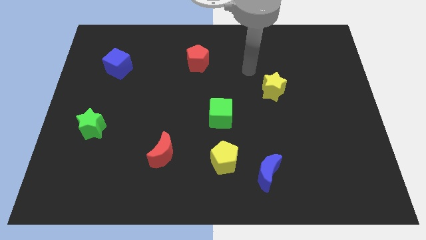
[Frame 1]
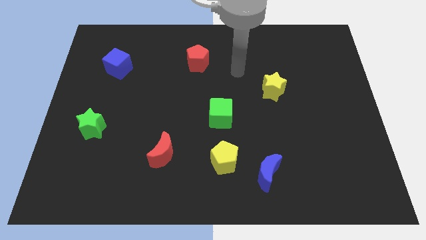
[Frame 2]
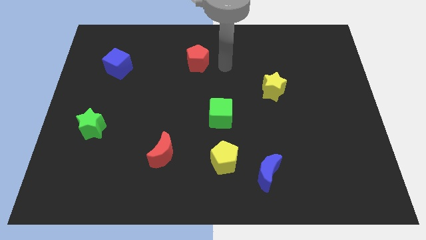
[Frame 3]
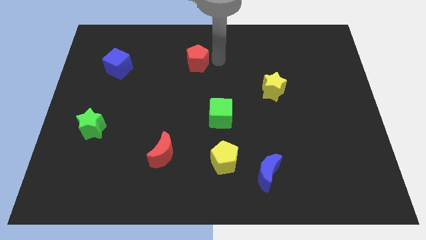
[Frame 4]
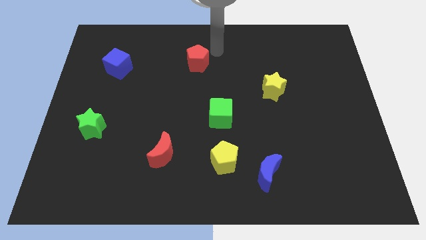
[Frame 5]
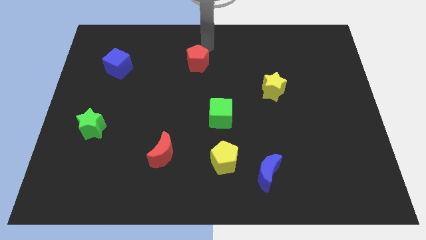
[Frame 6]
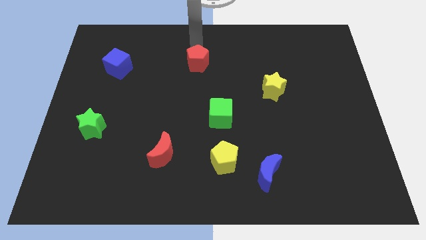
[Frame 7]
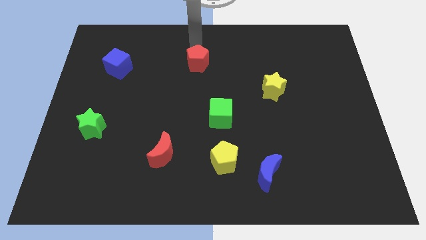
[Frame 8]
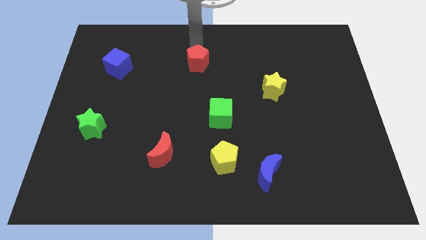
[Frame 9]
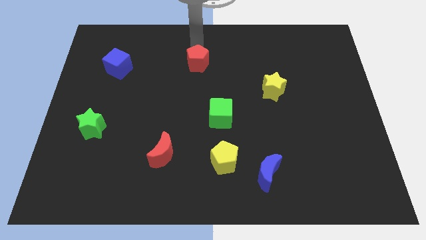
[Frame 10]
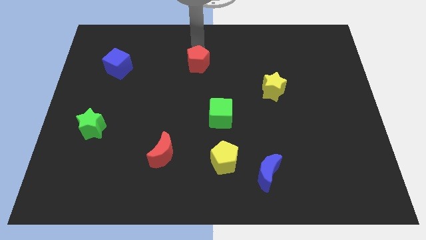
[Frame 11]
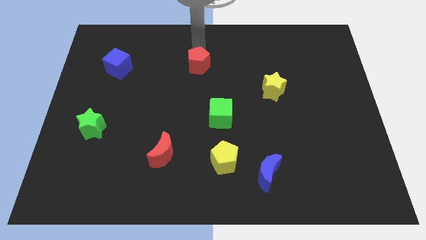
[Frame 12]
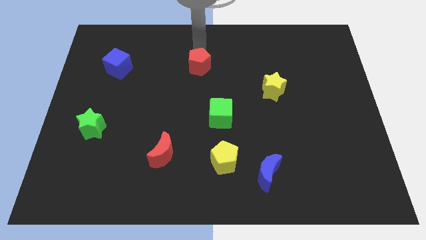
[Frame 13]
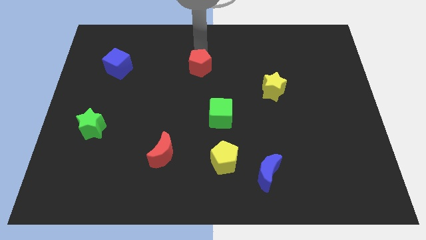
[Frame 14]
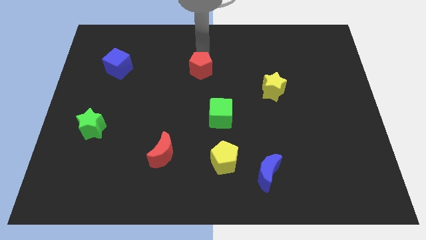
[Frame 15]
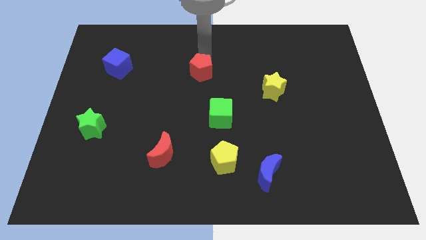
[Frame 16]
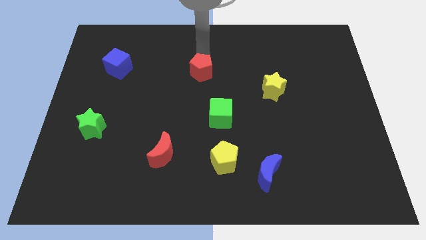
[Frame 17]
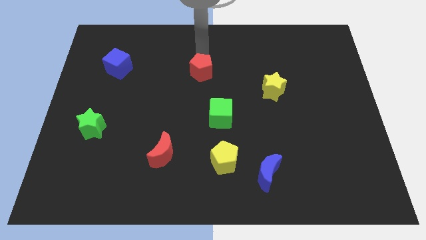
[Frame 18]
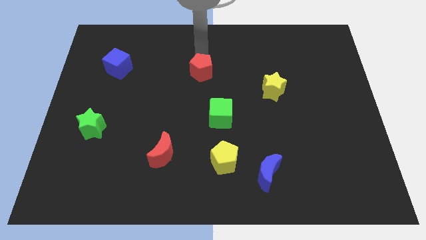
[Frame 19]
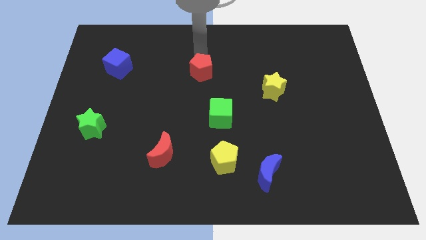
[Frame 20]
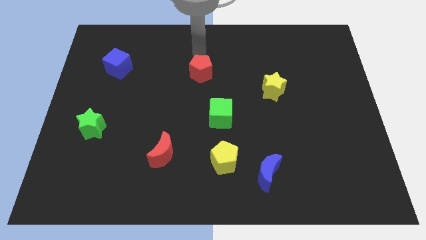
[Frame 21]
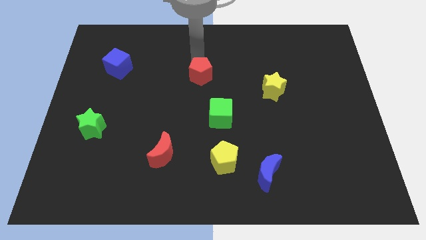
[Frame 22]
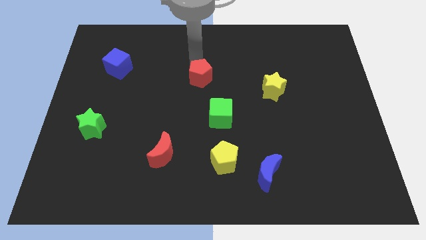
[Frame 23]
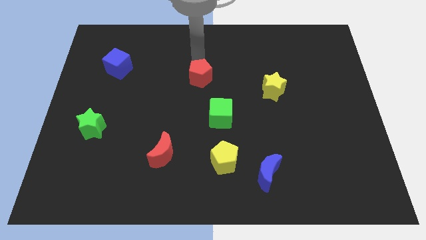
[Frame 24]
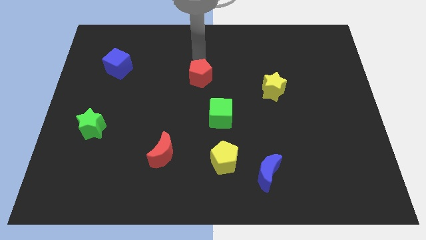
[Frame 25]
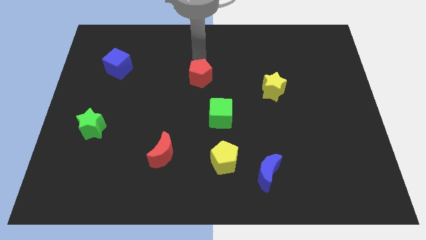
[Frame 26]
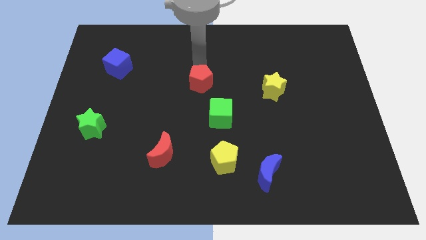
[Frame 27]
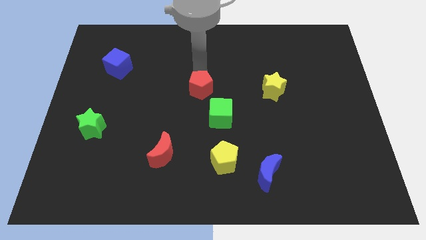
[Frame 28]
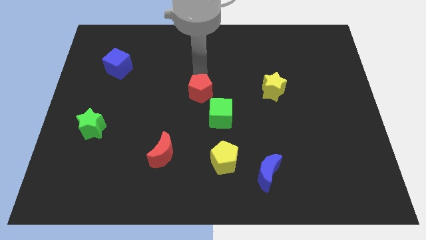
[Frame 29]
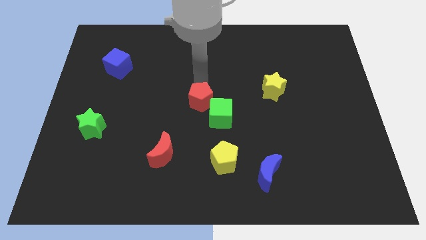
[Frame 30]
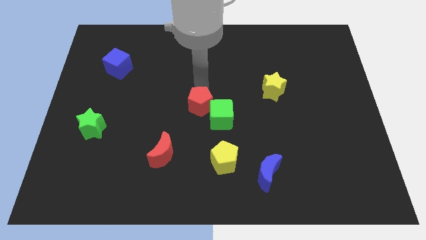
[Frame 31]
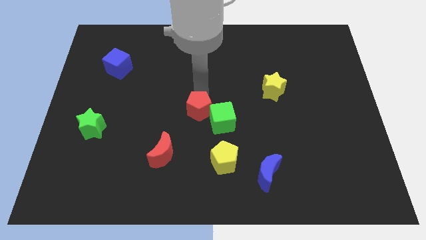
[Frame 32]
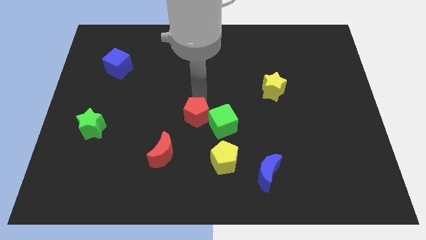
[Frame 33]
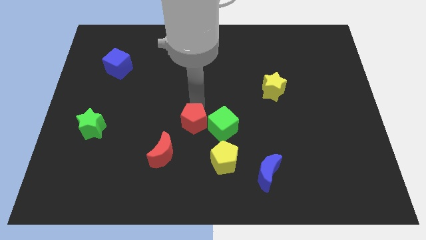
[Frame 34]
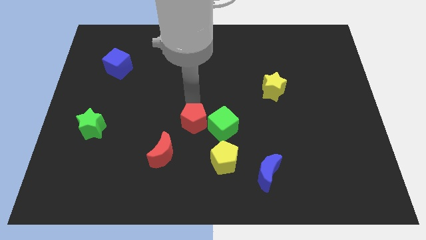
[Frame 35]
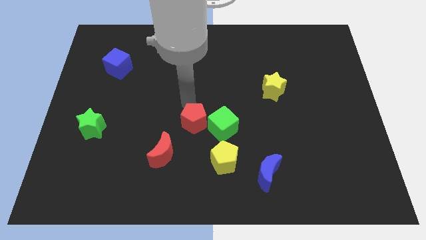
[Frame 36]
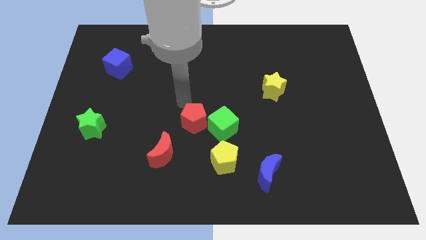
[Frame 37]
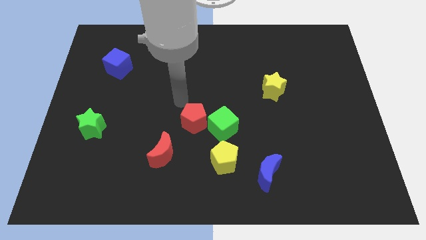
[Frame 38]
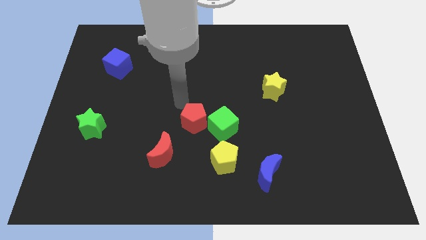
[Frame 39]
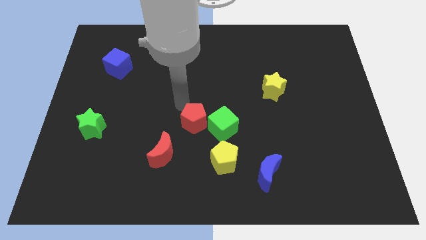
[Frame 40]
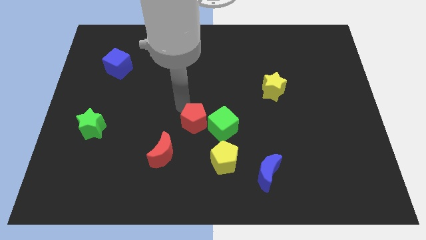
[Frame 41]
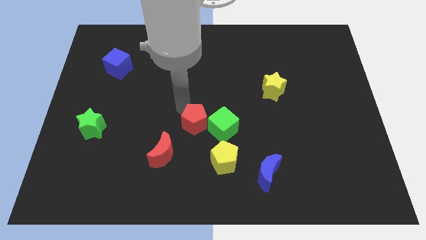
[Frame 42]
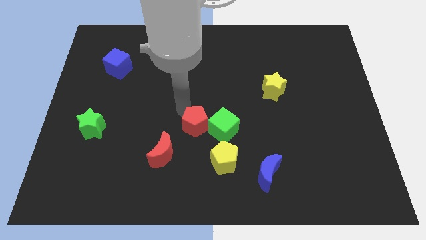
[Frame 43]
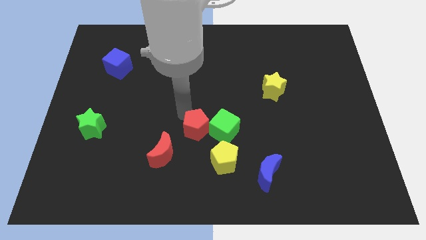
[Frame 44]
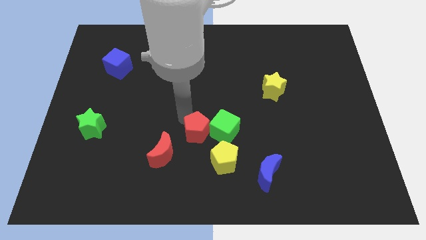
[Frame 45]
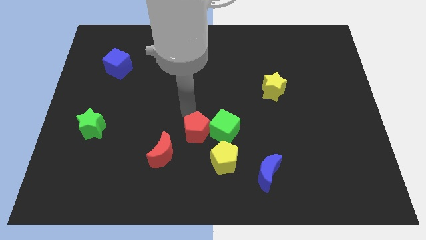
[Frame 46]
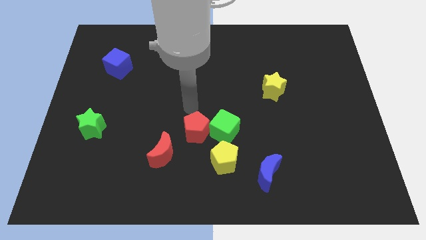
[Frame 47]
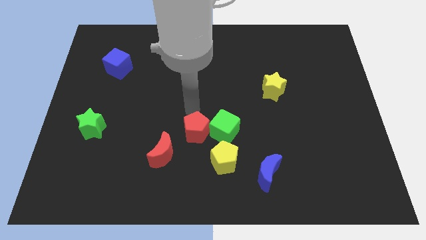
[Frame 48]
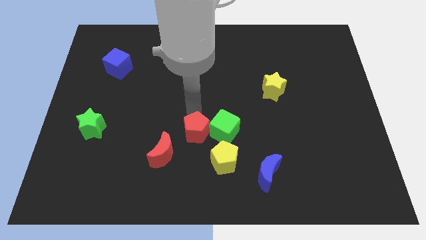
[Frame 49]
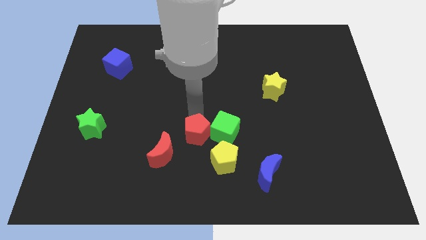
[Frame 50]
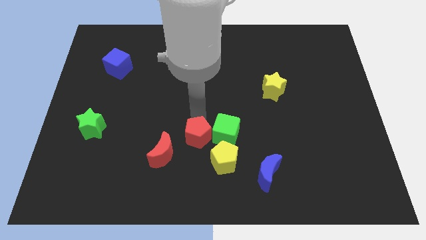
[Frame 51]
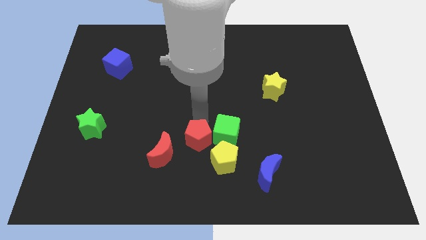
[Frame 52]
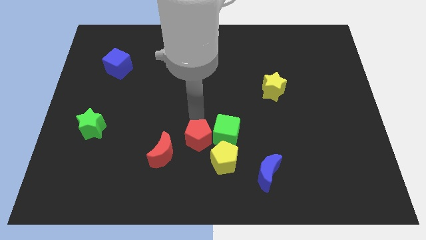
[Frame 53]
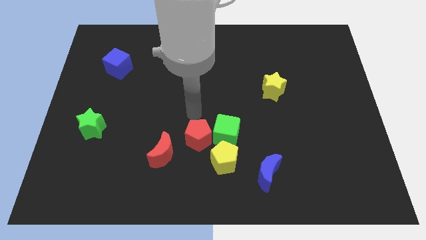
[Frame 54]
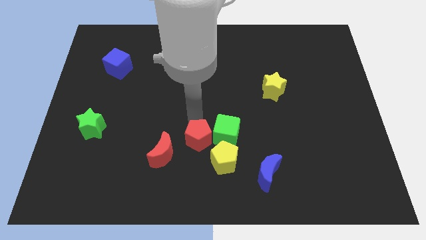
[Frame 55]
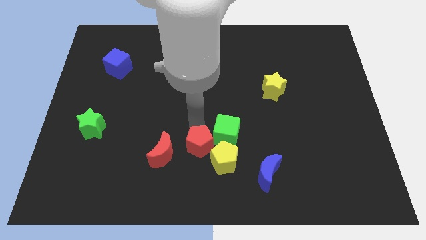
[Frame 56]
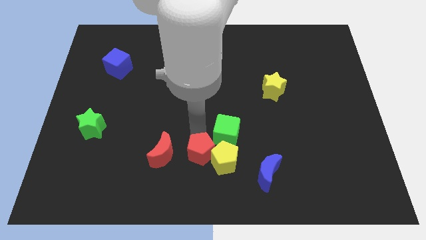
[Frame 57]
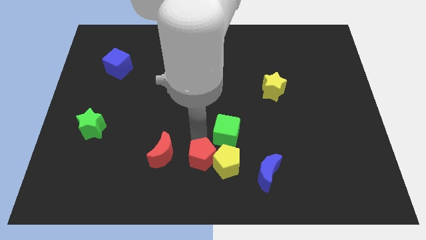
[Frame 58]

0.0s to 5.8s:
slide the red pentagon to the bottom

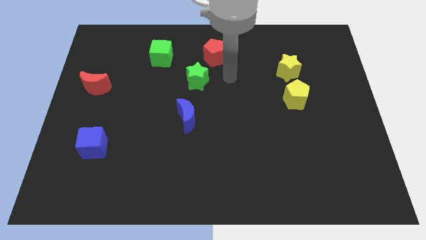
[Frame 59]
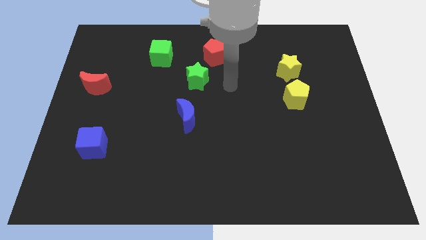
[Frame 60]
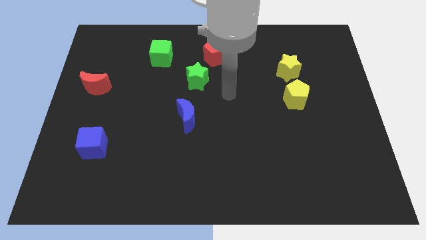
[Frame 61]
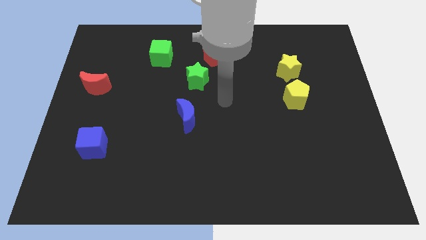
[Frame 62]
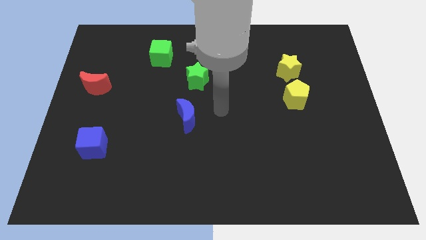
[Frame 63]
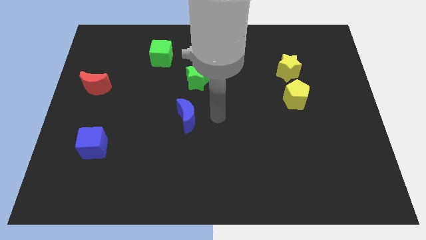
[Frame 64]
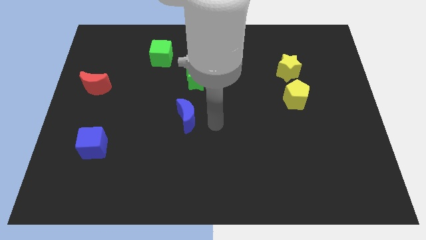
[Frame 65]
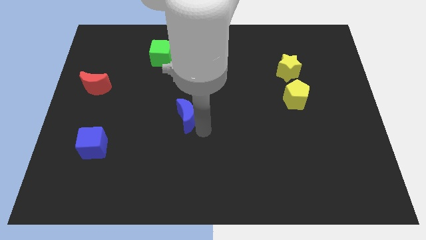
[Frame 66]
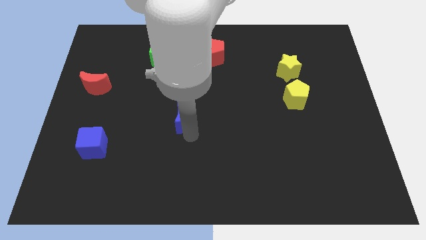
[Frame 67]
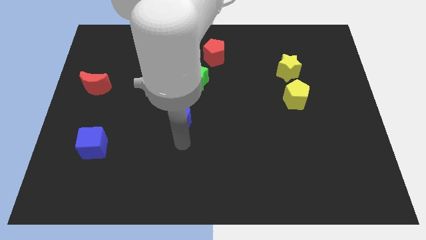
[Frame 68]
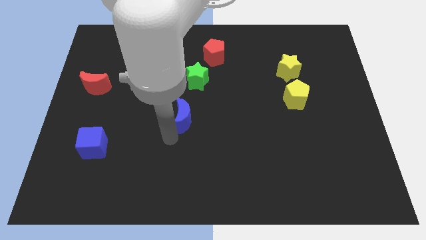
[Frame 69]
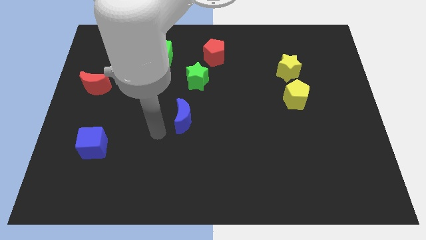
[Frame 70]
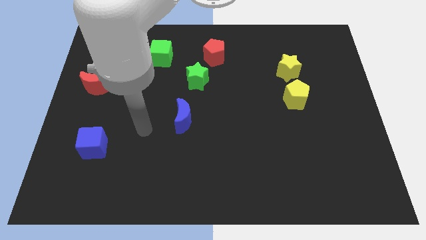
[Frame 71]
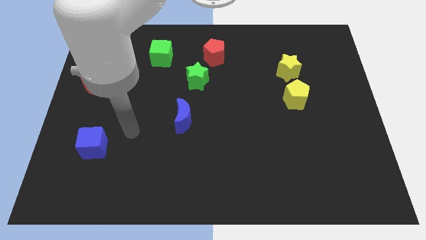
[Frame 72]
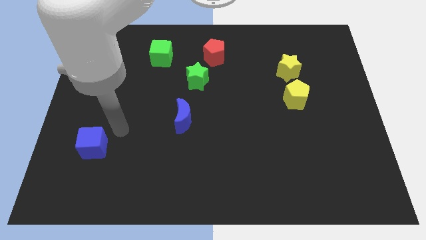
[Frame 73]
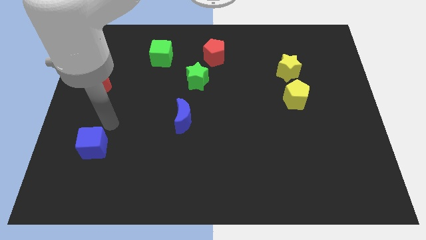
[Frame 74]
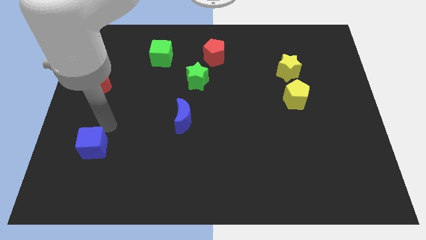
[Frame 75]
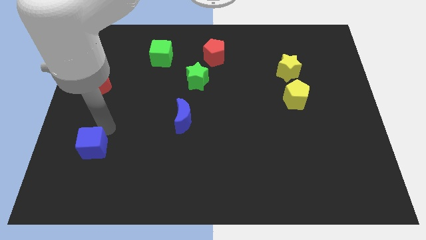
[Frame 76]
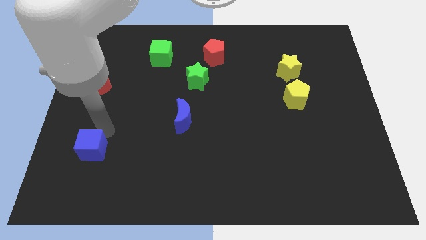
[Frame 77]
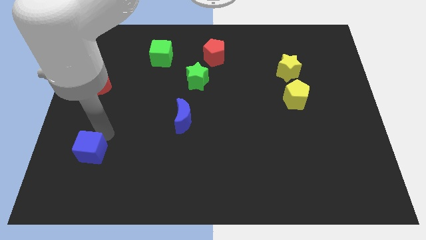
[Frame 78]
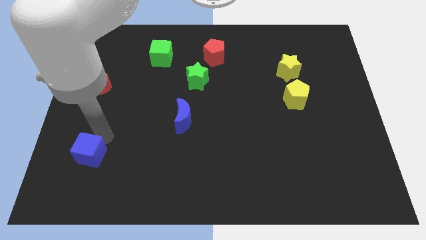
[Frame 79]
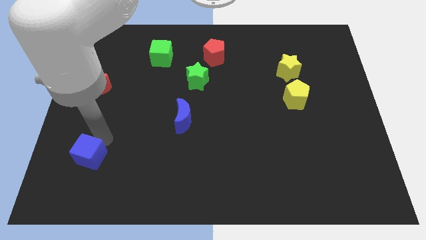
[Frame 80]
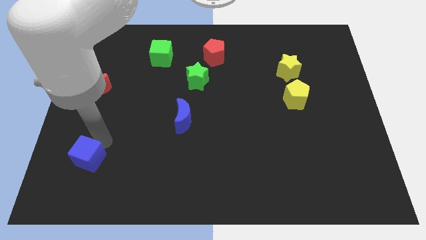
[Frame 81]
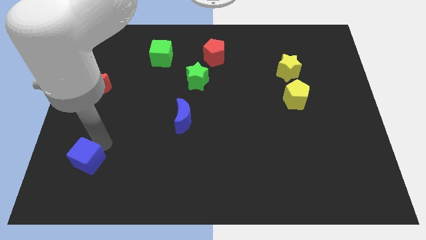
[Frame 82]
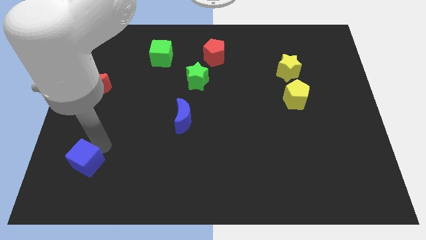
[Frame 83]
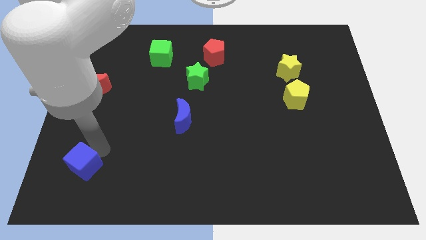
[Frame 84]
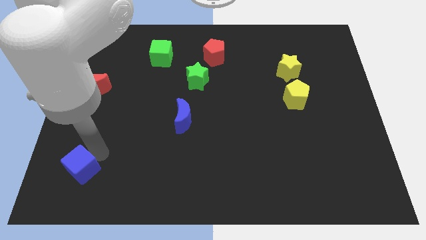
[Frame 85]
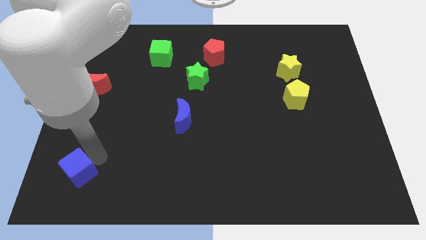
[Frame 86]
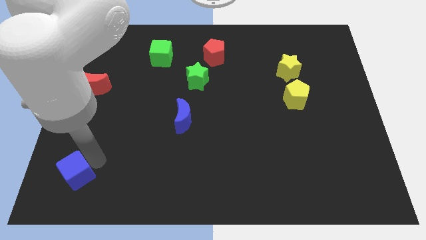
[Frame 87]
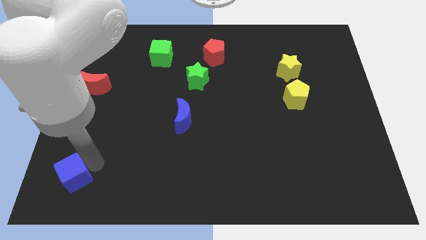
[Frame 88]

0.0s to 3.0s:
push the blue cube to the bottom left
